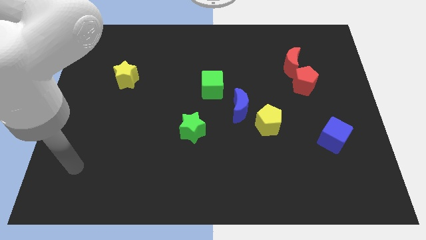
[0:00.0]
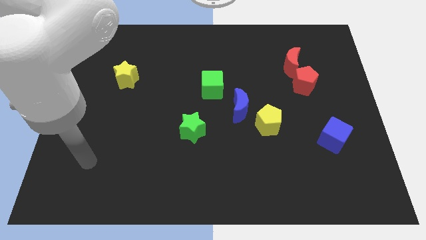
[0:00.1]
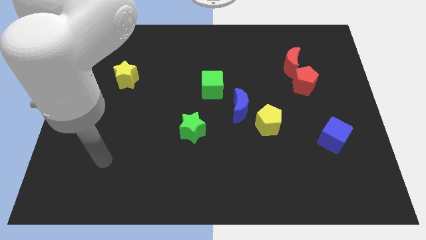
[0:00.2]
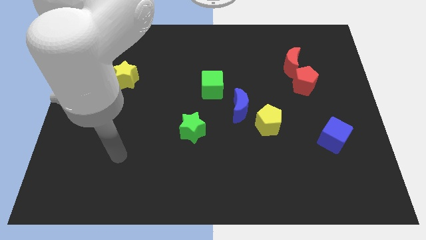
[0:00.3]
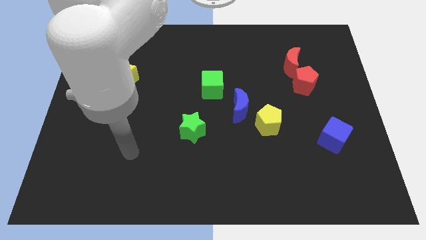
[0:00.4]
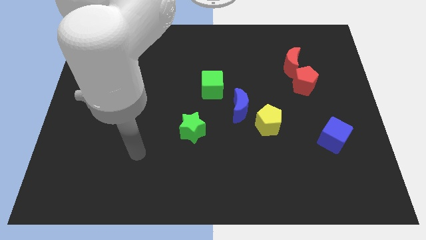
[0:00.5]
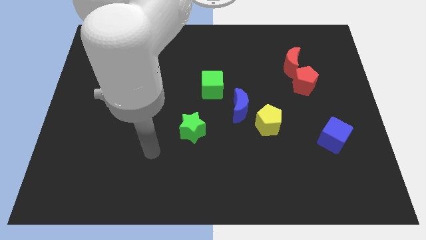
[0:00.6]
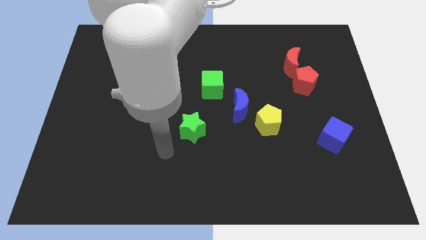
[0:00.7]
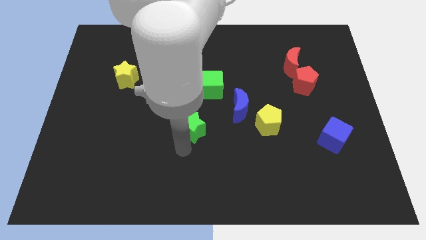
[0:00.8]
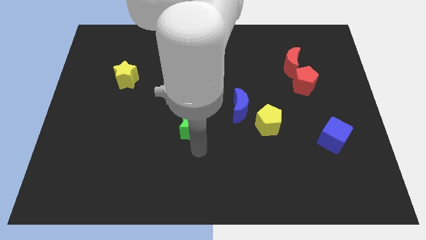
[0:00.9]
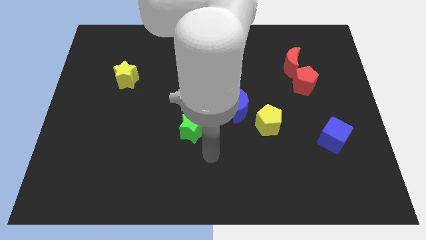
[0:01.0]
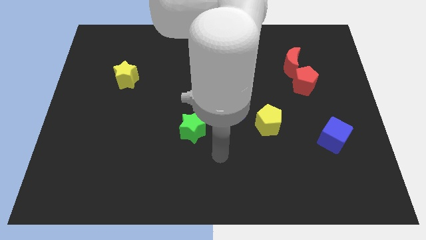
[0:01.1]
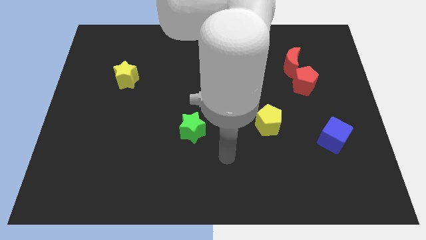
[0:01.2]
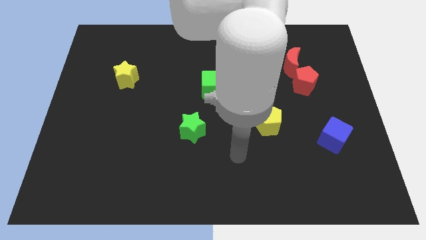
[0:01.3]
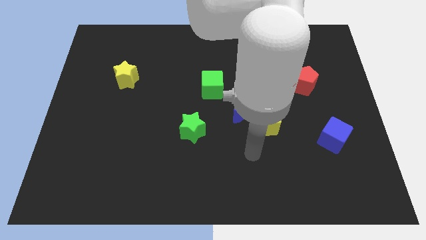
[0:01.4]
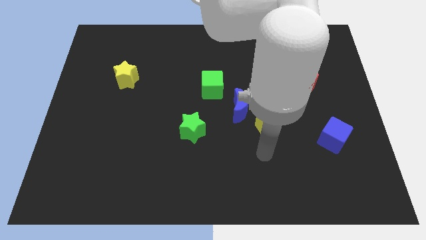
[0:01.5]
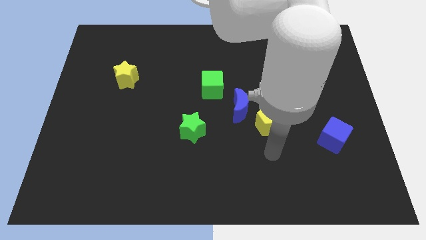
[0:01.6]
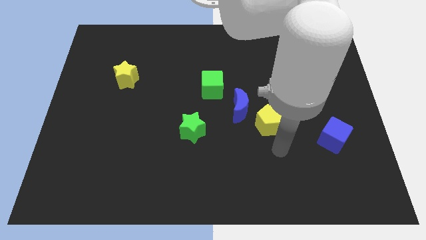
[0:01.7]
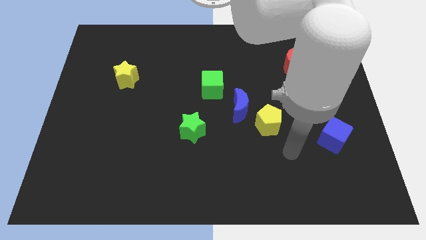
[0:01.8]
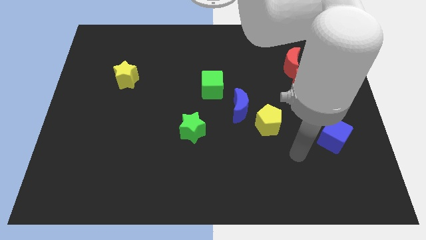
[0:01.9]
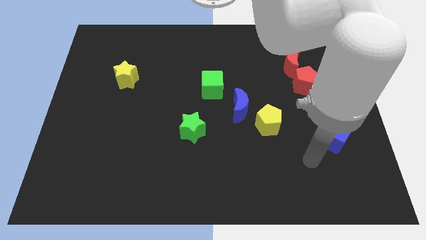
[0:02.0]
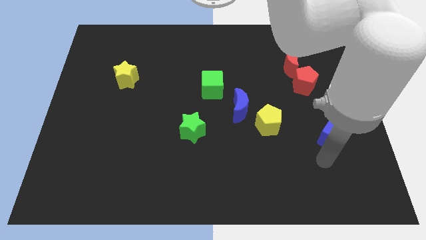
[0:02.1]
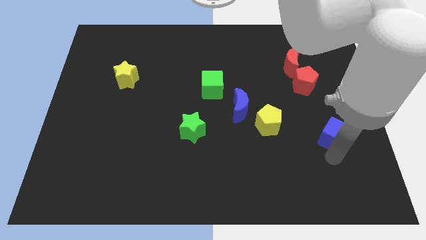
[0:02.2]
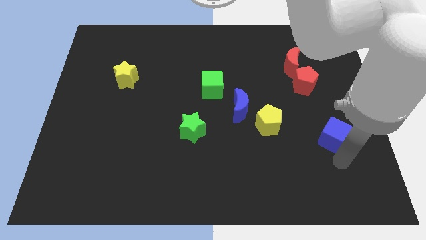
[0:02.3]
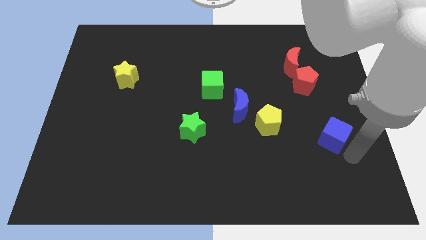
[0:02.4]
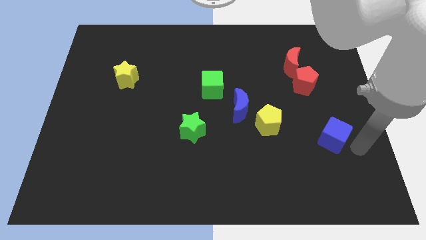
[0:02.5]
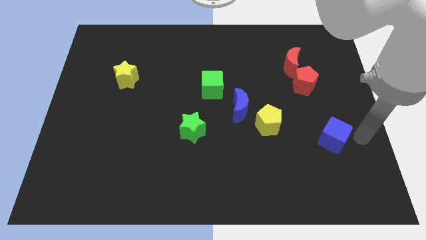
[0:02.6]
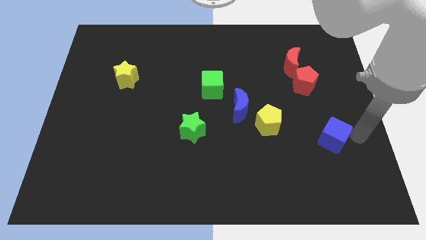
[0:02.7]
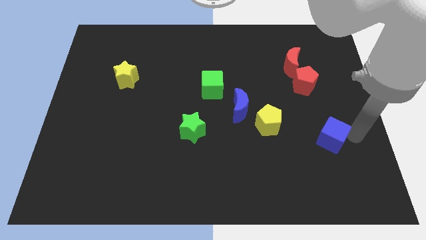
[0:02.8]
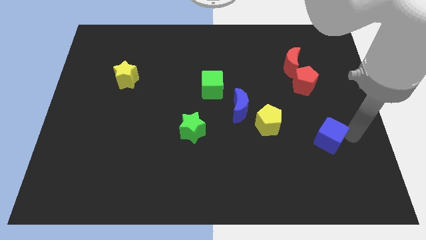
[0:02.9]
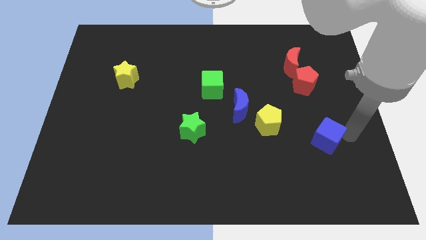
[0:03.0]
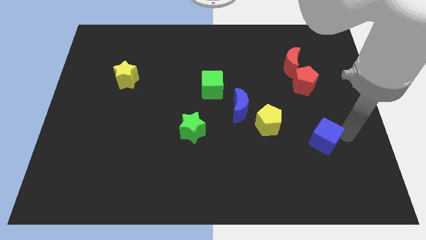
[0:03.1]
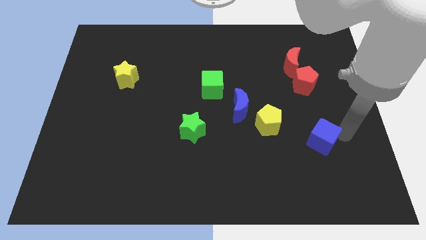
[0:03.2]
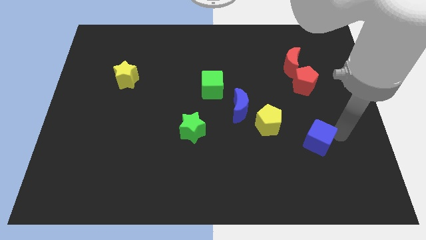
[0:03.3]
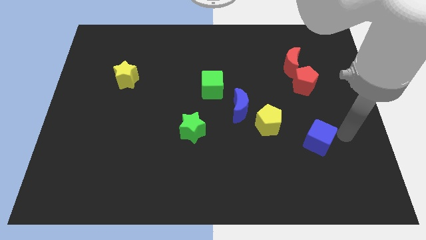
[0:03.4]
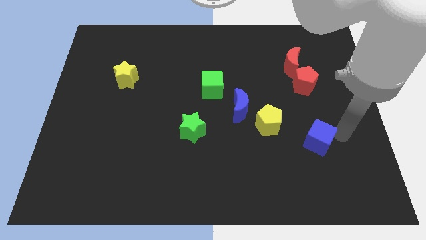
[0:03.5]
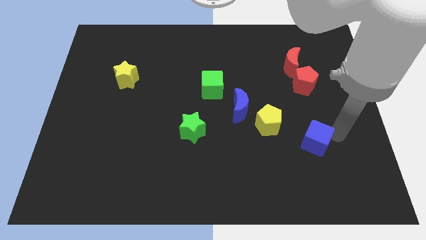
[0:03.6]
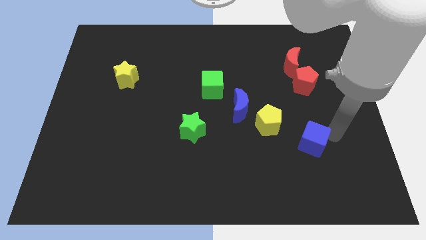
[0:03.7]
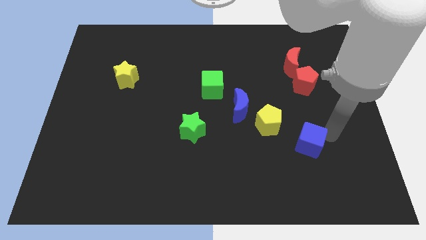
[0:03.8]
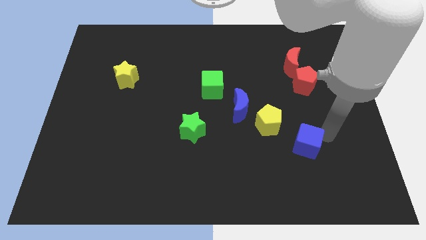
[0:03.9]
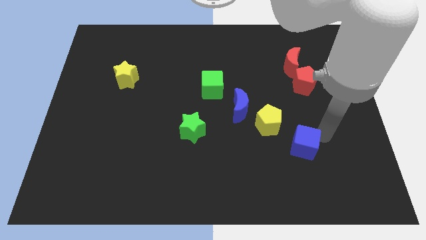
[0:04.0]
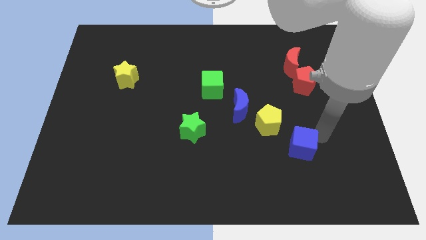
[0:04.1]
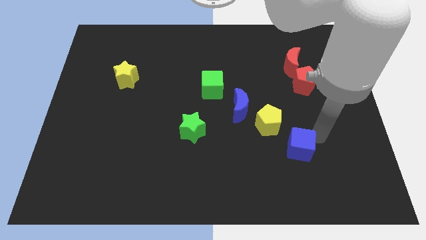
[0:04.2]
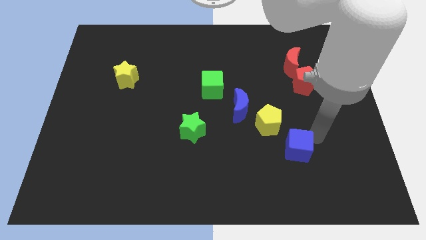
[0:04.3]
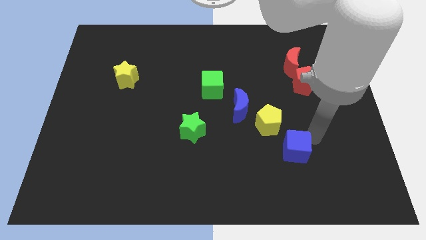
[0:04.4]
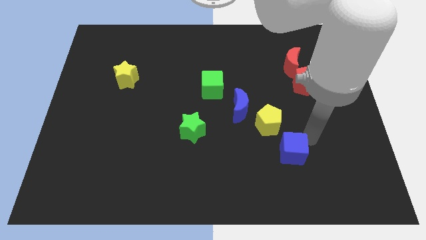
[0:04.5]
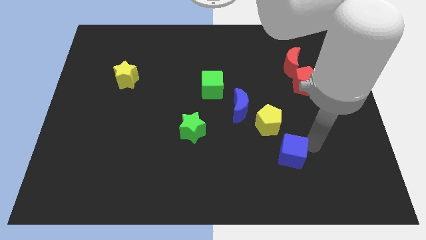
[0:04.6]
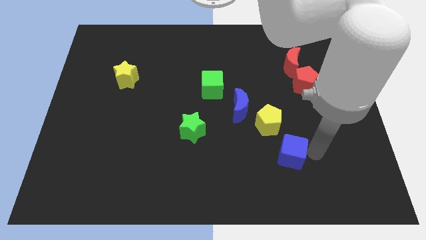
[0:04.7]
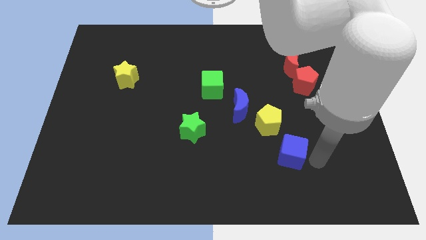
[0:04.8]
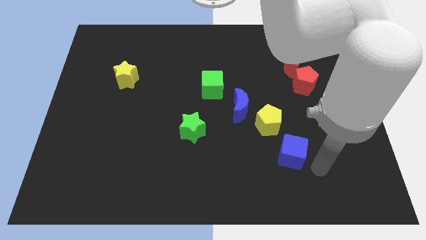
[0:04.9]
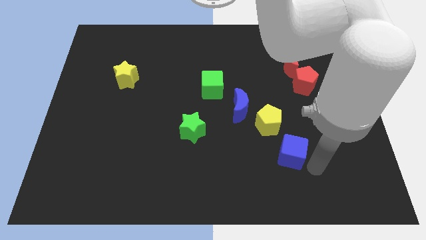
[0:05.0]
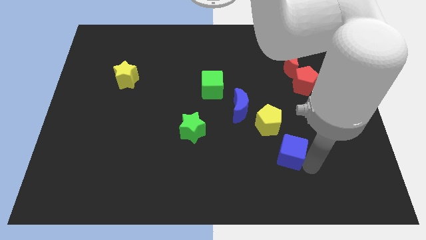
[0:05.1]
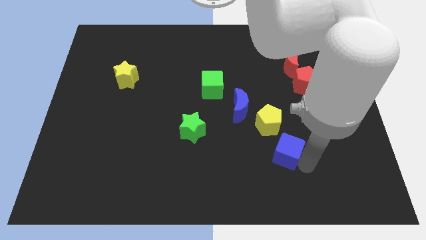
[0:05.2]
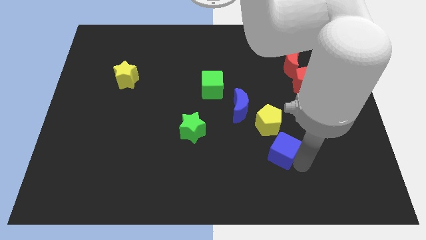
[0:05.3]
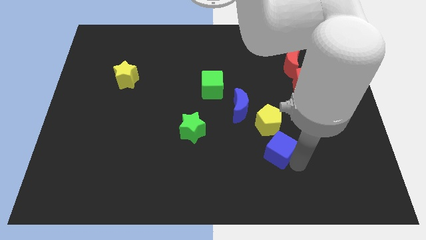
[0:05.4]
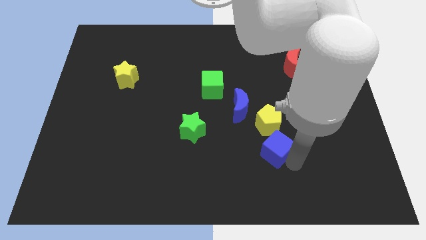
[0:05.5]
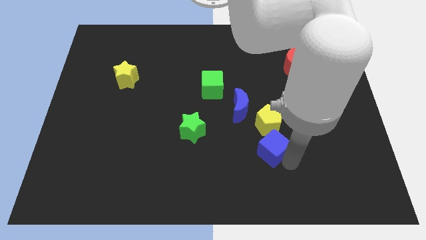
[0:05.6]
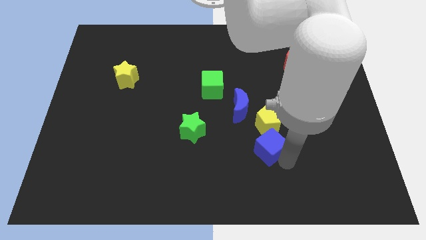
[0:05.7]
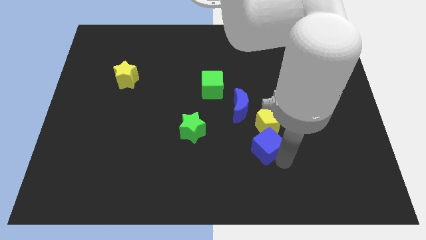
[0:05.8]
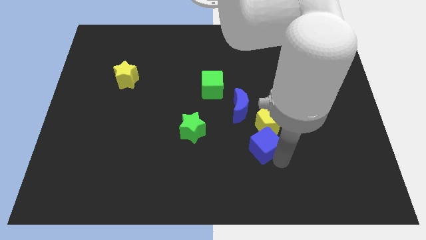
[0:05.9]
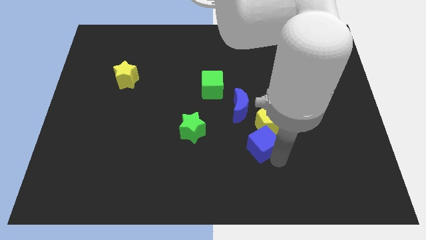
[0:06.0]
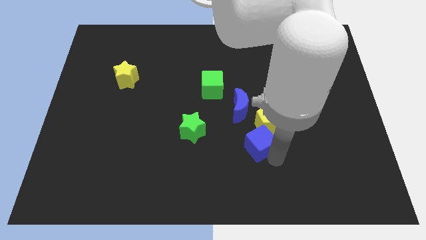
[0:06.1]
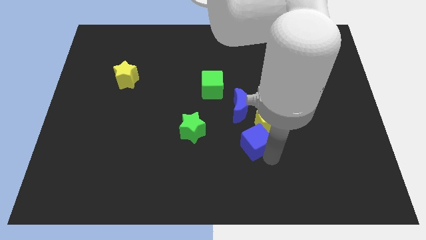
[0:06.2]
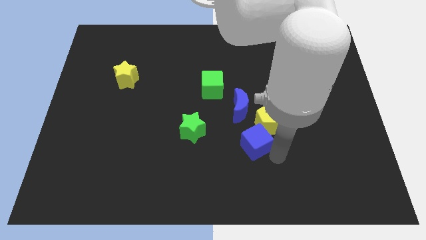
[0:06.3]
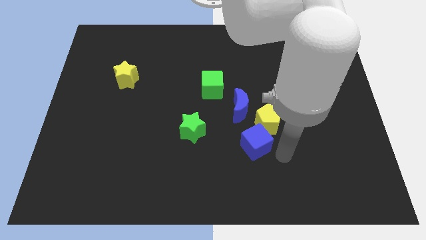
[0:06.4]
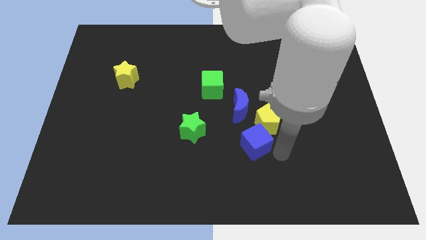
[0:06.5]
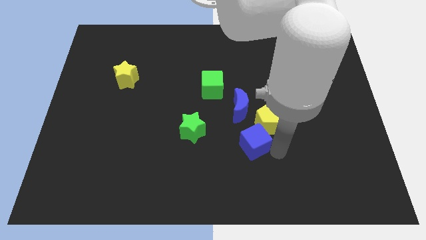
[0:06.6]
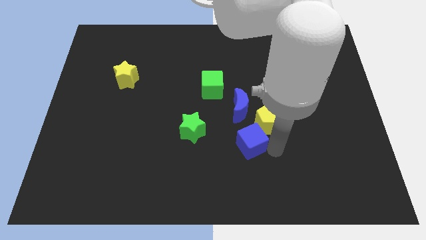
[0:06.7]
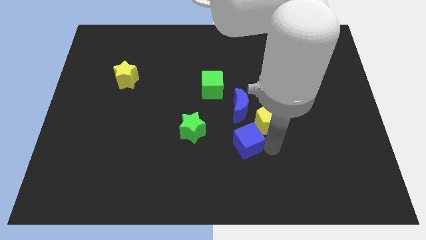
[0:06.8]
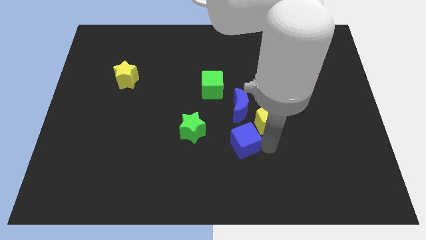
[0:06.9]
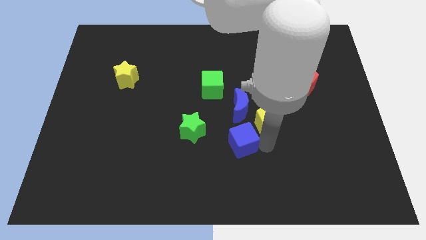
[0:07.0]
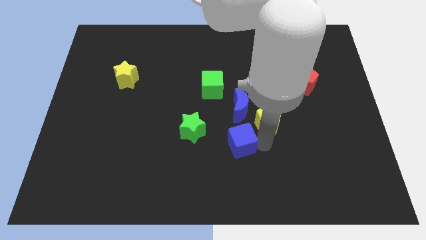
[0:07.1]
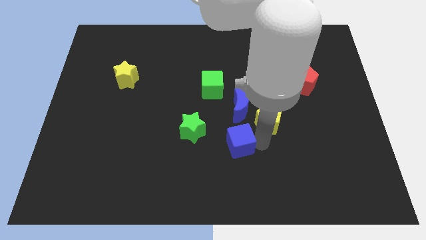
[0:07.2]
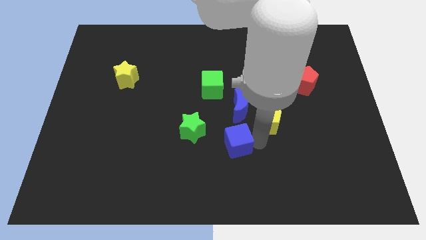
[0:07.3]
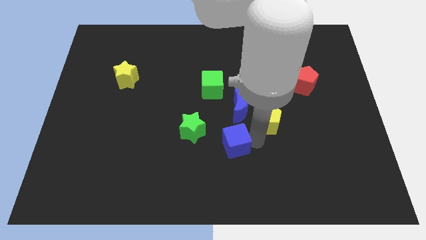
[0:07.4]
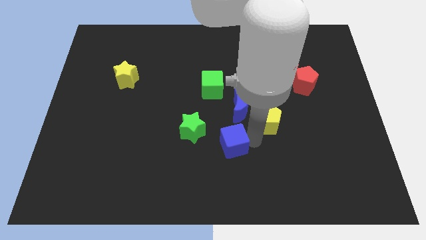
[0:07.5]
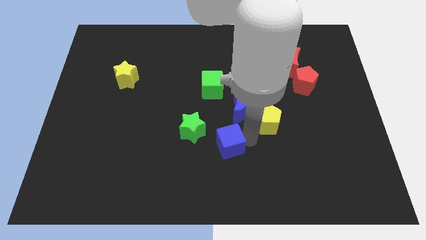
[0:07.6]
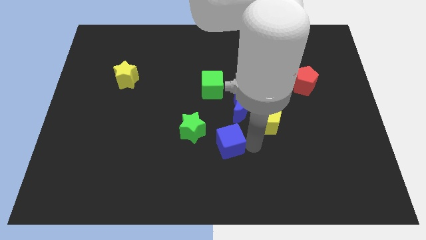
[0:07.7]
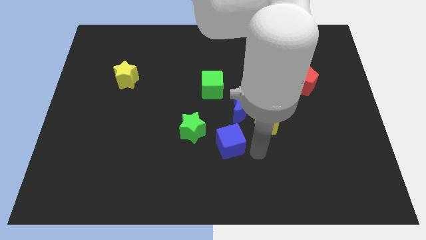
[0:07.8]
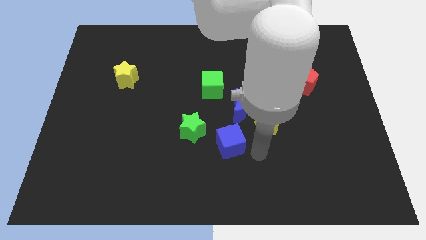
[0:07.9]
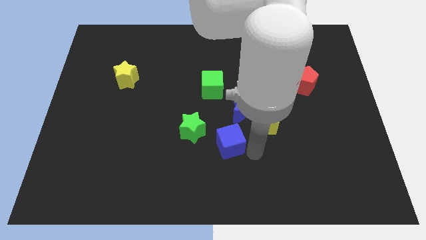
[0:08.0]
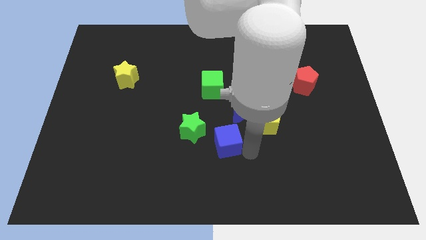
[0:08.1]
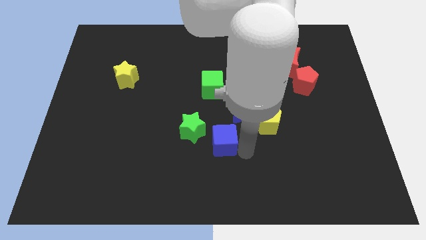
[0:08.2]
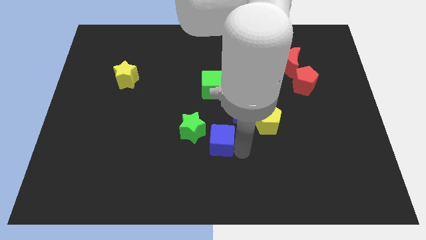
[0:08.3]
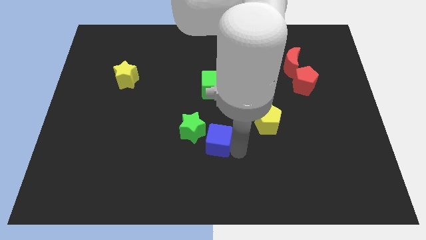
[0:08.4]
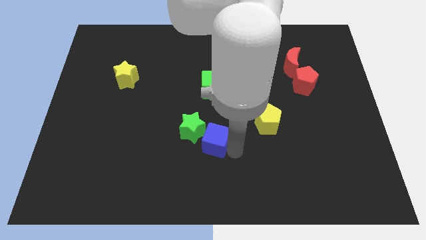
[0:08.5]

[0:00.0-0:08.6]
slide the blue cube close to the green star
